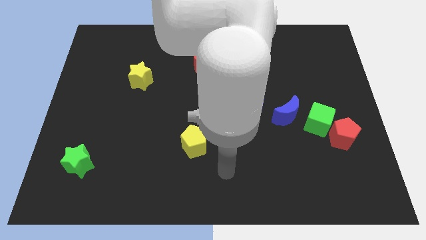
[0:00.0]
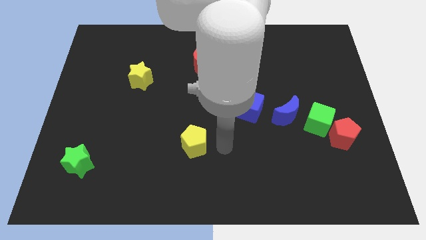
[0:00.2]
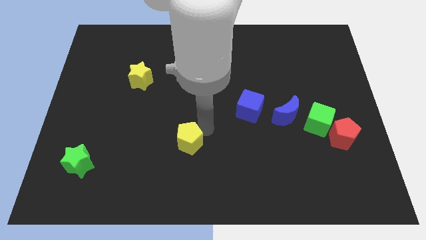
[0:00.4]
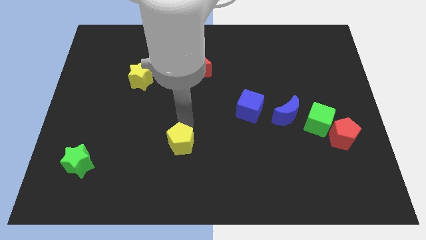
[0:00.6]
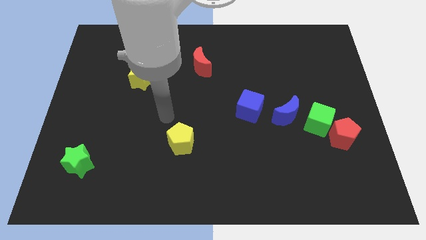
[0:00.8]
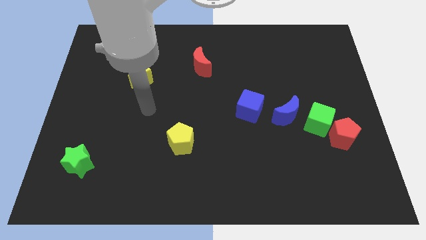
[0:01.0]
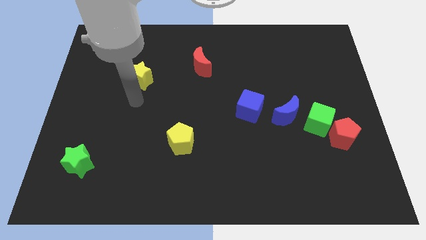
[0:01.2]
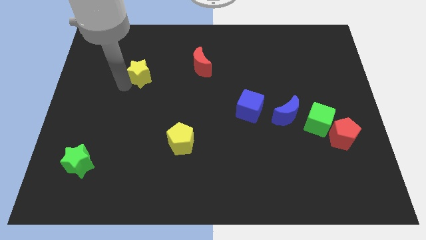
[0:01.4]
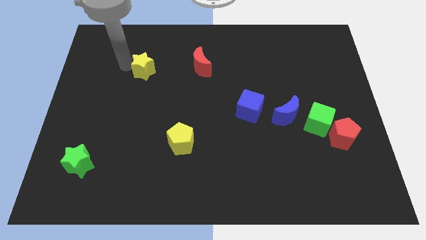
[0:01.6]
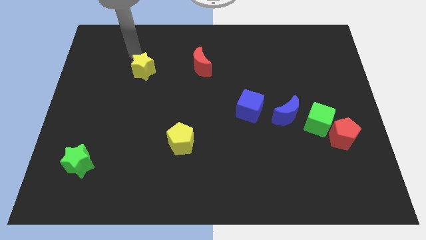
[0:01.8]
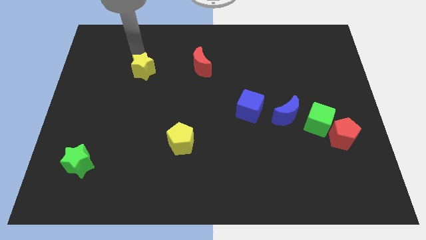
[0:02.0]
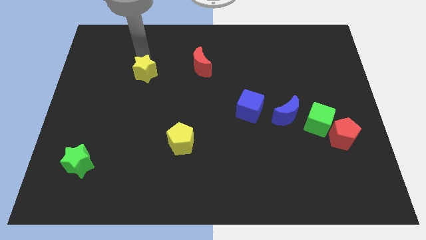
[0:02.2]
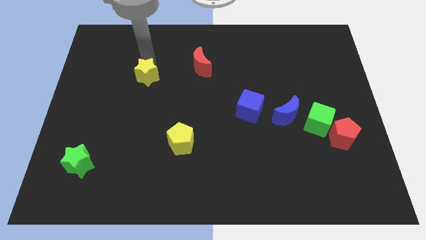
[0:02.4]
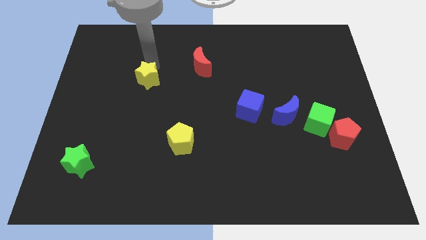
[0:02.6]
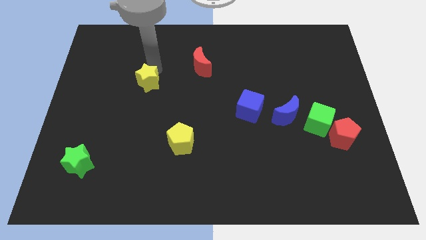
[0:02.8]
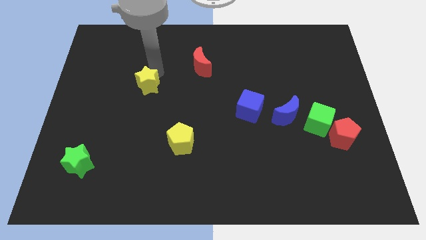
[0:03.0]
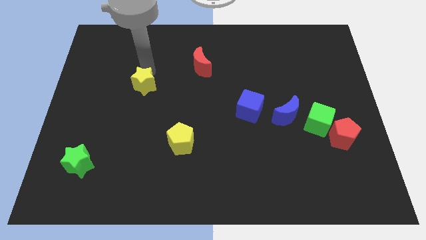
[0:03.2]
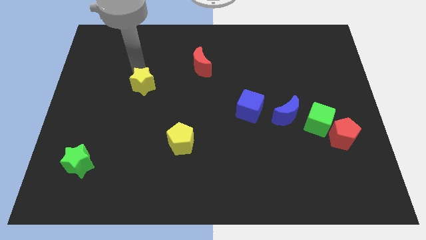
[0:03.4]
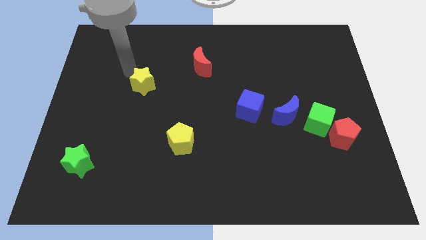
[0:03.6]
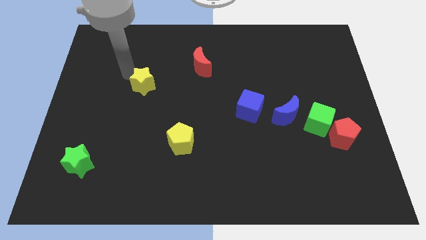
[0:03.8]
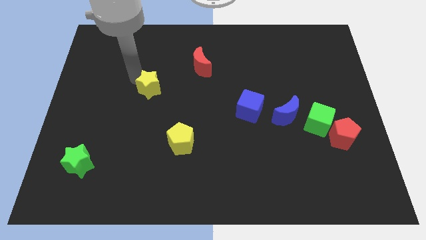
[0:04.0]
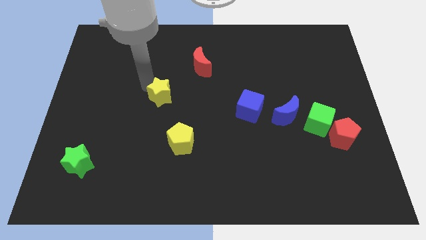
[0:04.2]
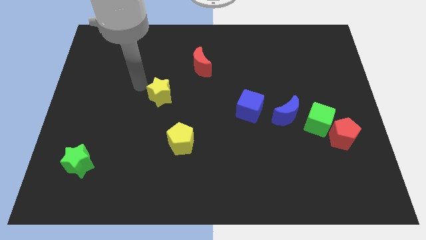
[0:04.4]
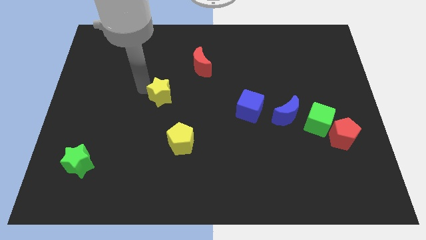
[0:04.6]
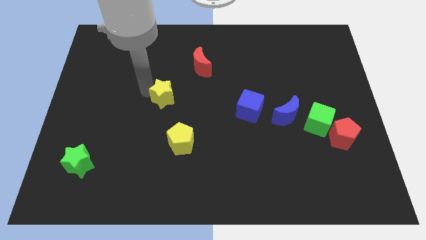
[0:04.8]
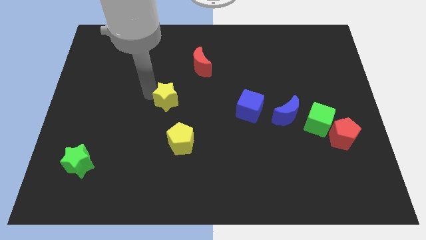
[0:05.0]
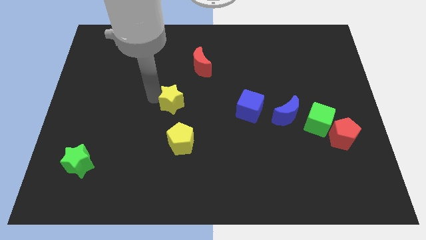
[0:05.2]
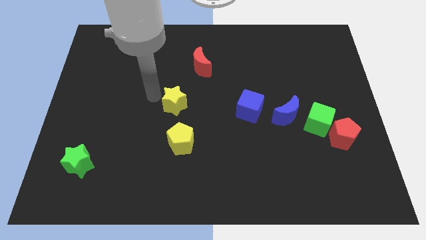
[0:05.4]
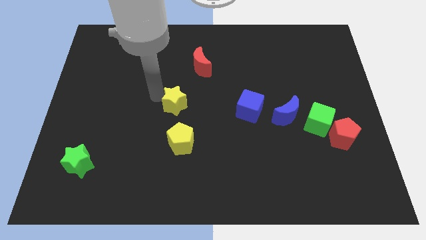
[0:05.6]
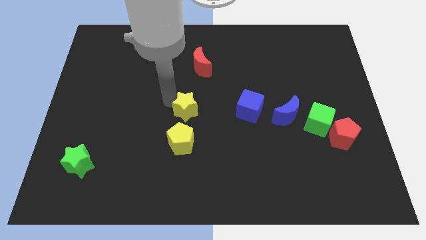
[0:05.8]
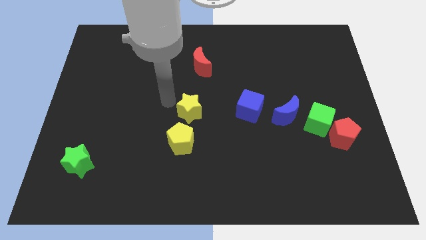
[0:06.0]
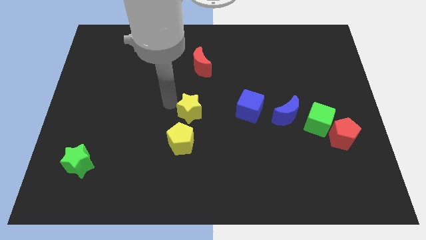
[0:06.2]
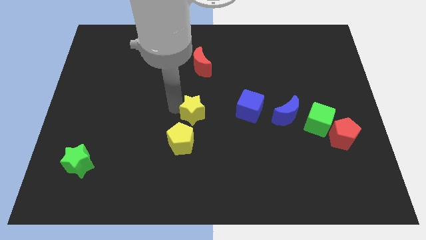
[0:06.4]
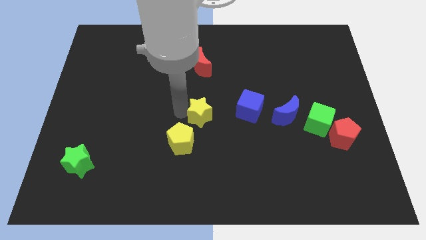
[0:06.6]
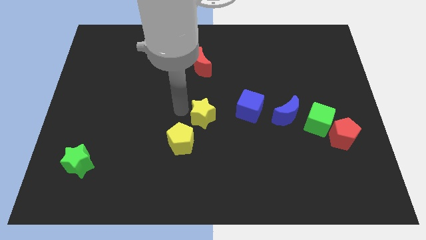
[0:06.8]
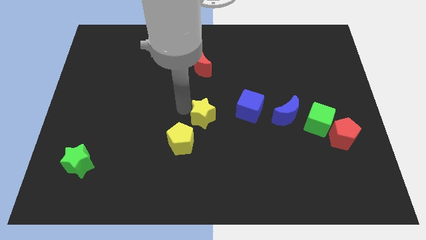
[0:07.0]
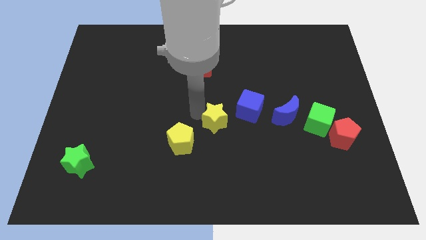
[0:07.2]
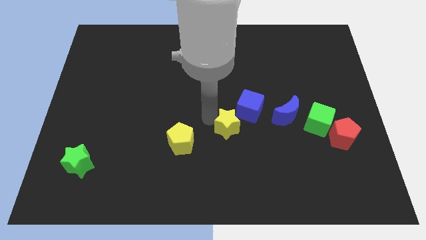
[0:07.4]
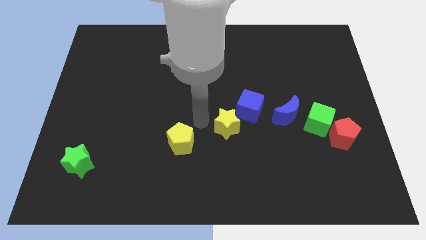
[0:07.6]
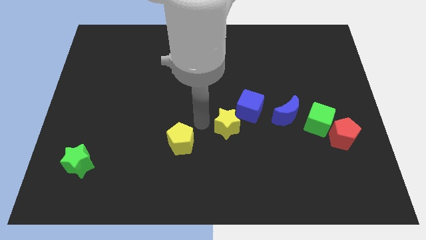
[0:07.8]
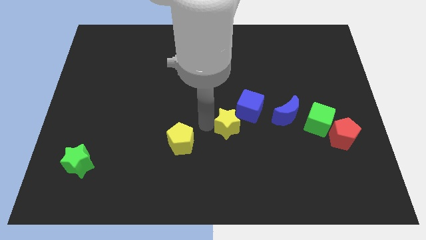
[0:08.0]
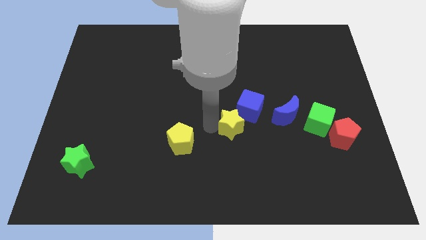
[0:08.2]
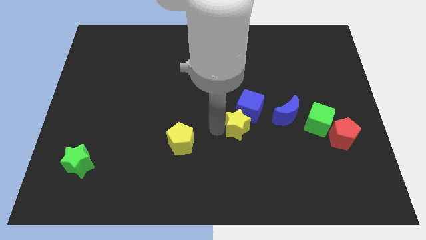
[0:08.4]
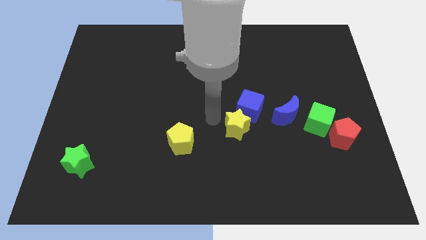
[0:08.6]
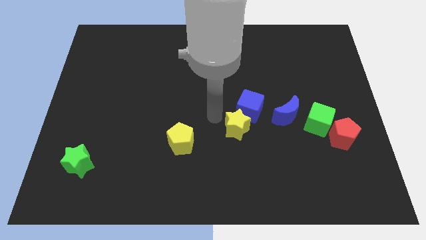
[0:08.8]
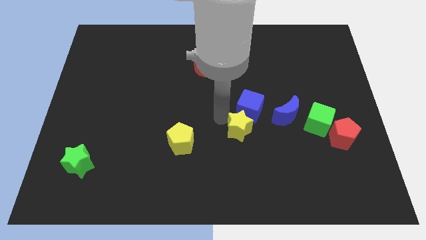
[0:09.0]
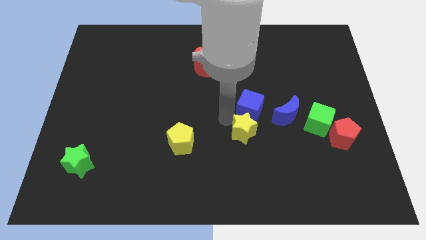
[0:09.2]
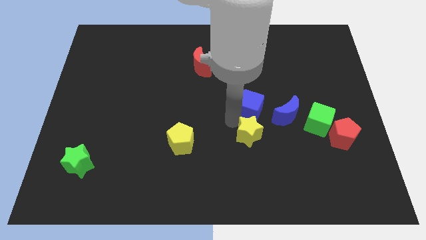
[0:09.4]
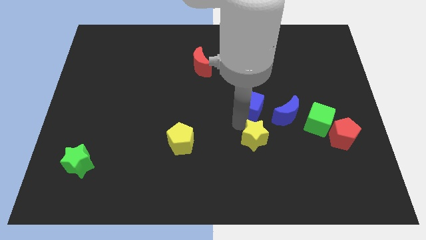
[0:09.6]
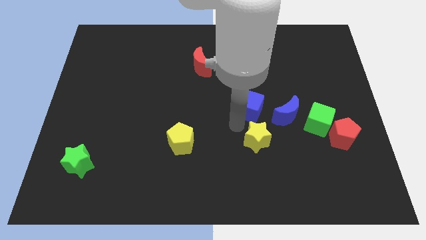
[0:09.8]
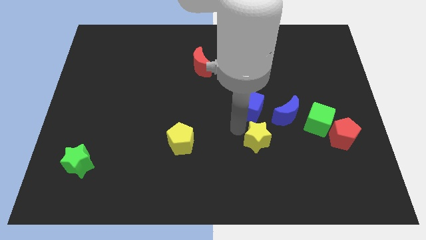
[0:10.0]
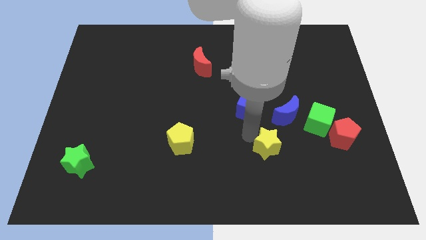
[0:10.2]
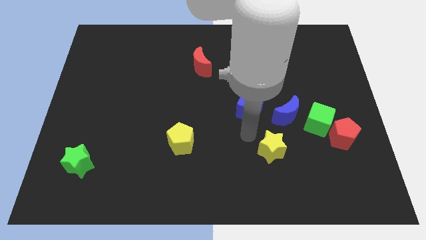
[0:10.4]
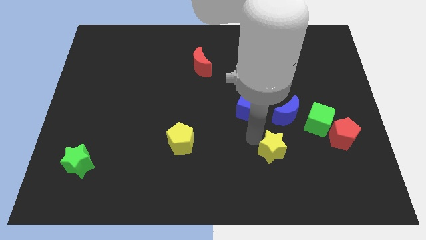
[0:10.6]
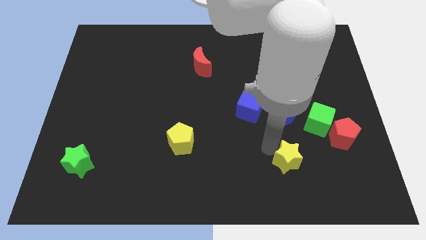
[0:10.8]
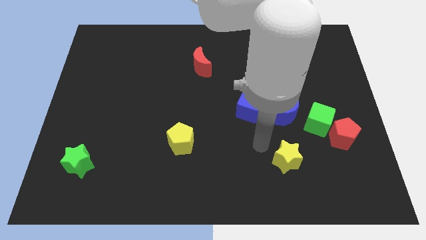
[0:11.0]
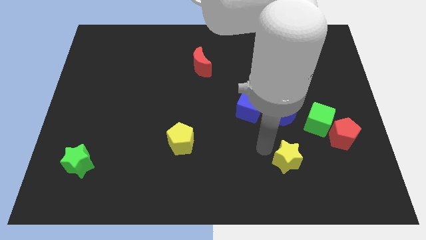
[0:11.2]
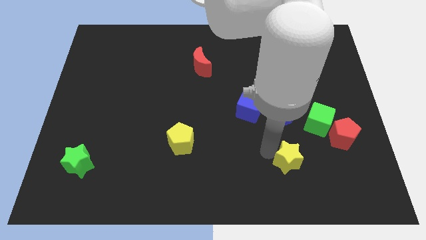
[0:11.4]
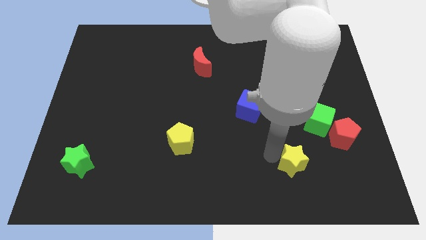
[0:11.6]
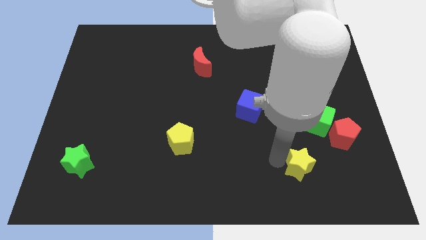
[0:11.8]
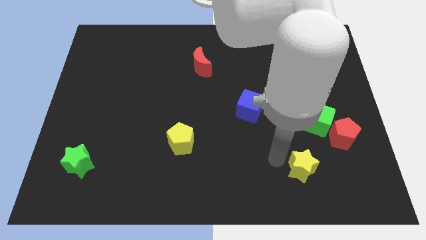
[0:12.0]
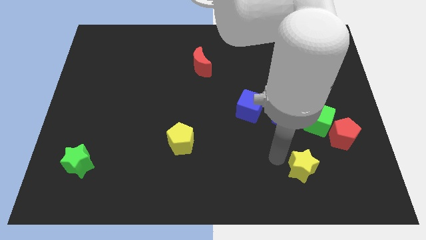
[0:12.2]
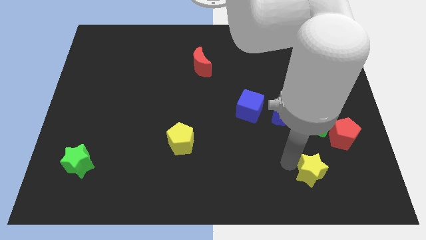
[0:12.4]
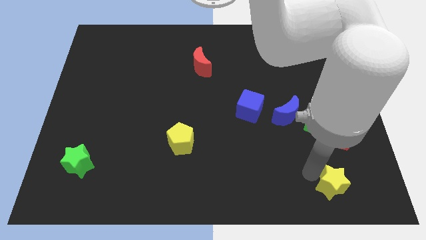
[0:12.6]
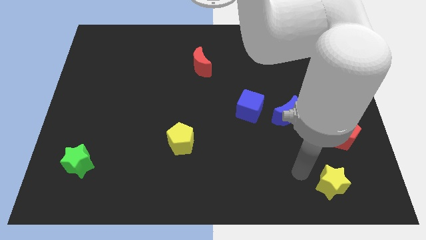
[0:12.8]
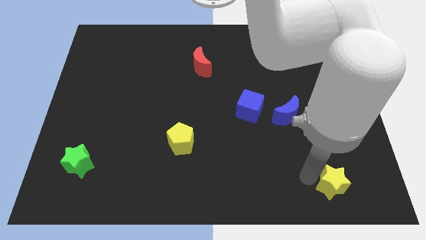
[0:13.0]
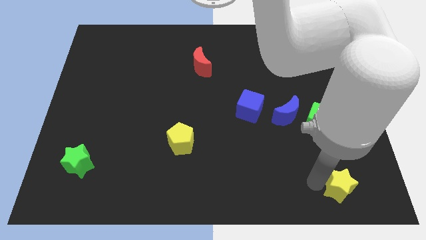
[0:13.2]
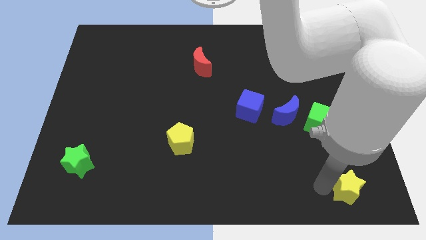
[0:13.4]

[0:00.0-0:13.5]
slide the yellow star to the bottom right of the board
